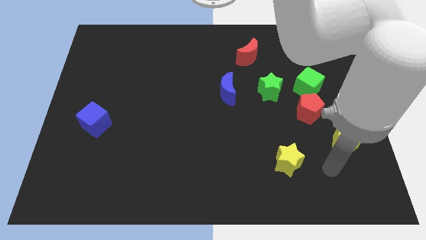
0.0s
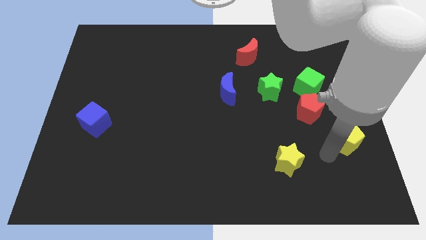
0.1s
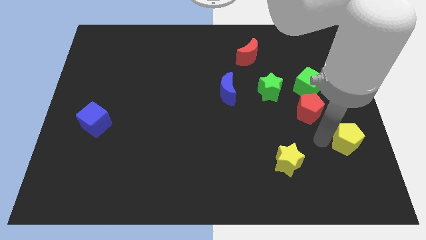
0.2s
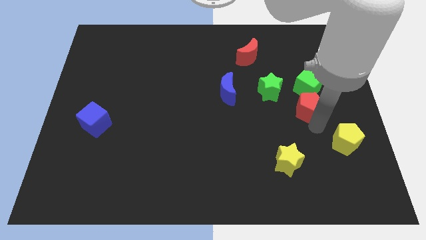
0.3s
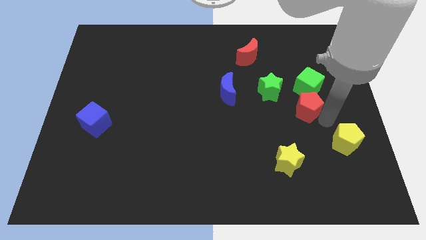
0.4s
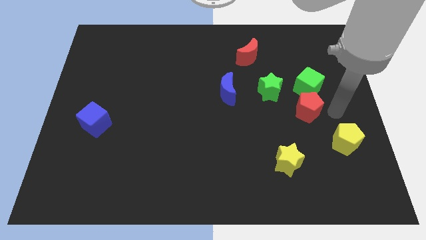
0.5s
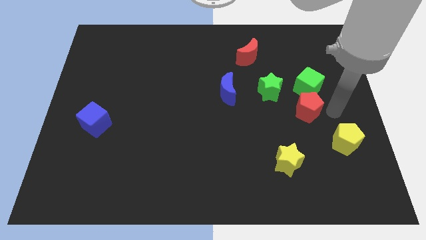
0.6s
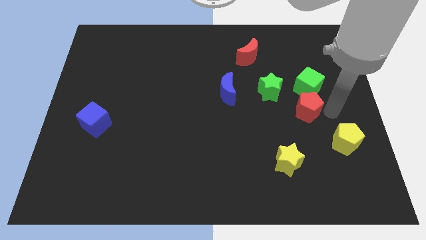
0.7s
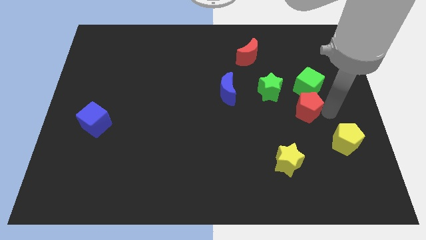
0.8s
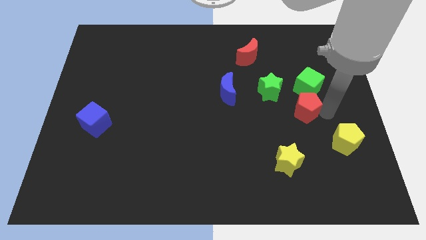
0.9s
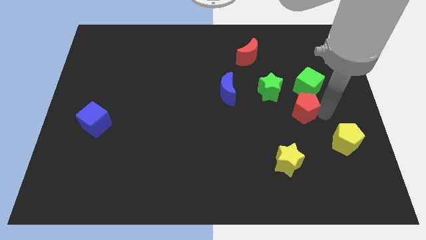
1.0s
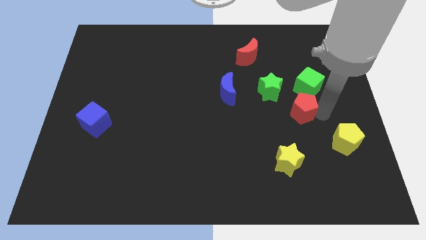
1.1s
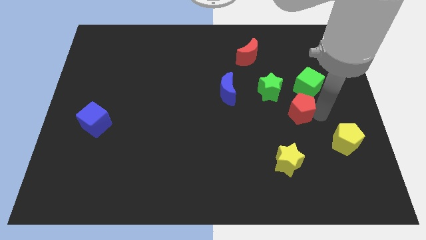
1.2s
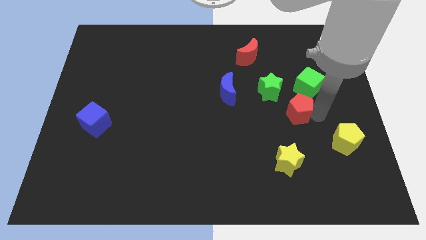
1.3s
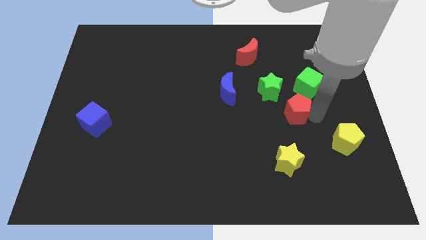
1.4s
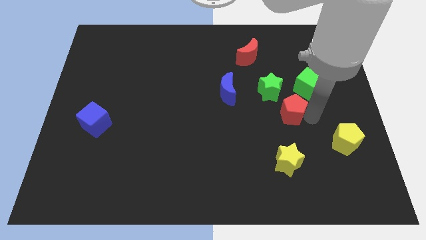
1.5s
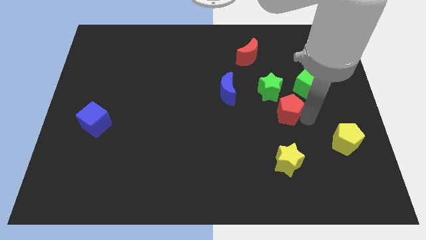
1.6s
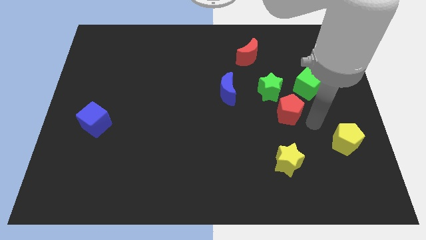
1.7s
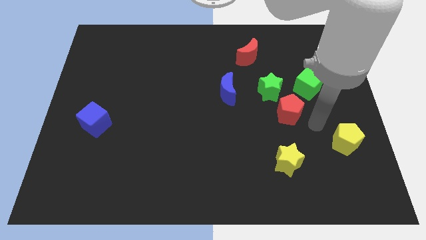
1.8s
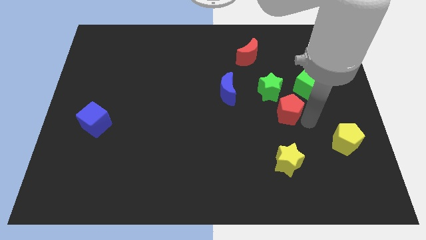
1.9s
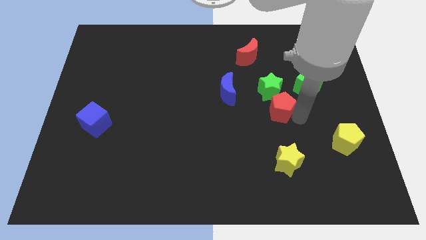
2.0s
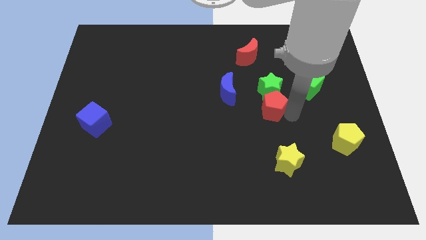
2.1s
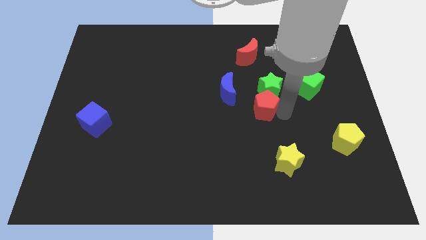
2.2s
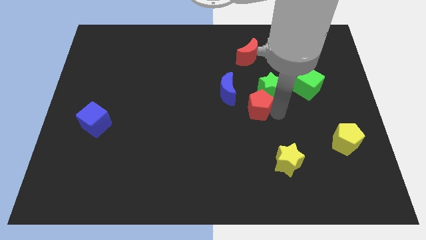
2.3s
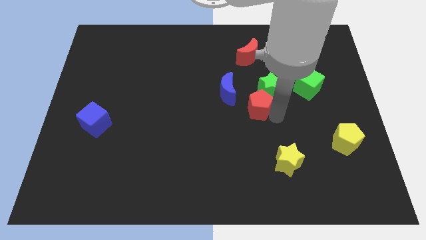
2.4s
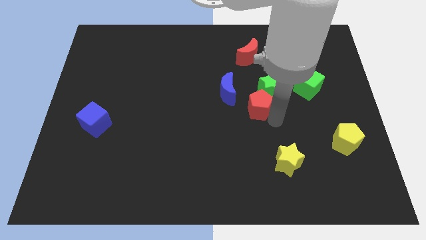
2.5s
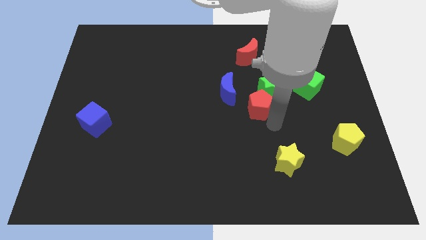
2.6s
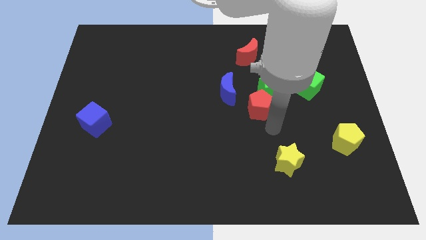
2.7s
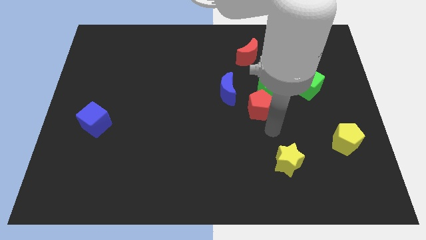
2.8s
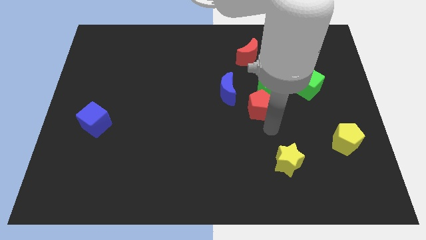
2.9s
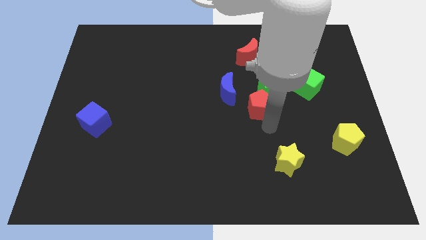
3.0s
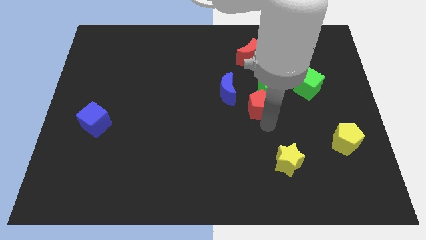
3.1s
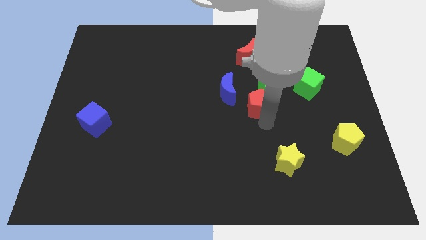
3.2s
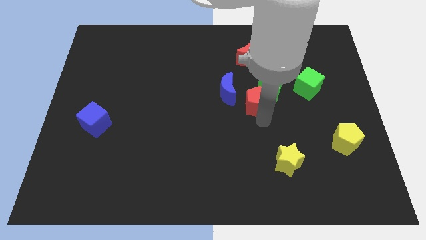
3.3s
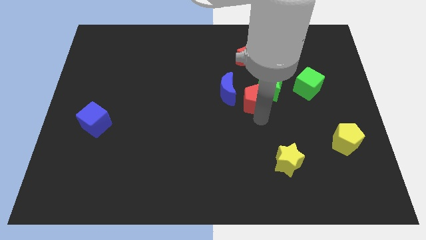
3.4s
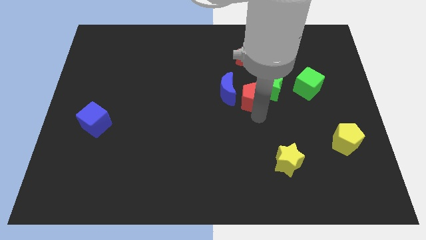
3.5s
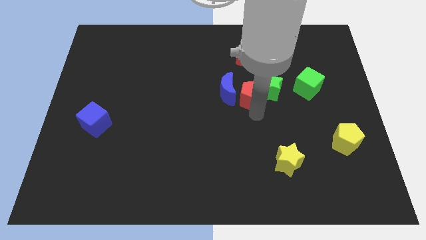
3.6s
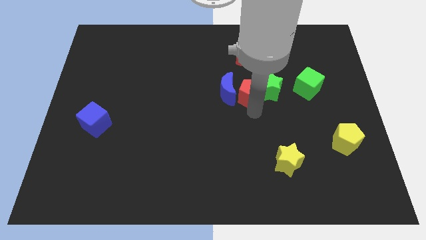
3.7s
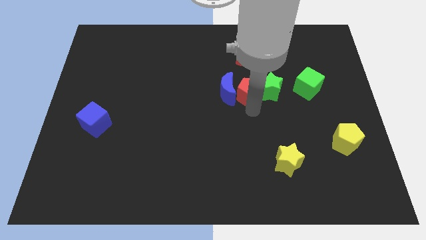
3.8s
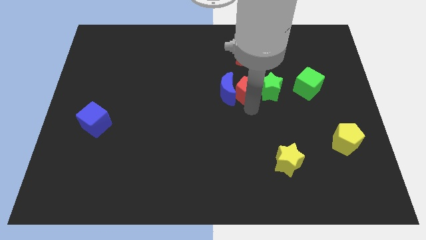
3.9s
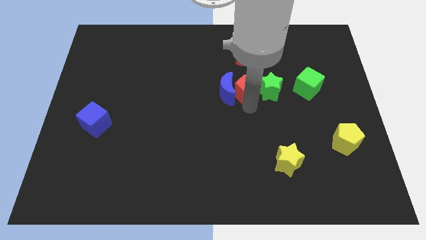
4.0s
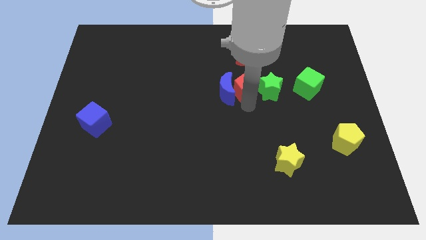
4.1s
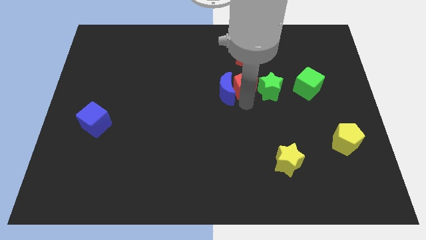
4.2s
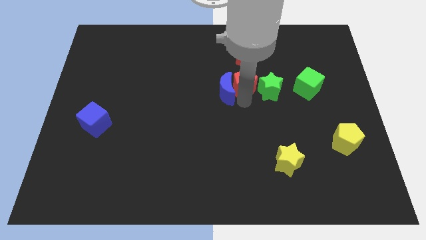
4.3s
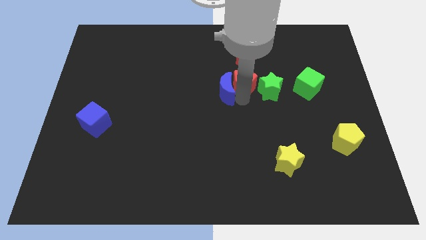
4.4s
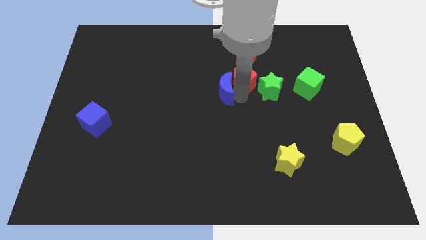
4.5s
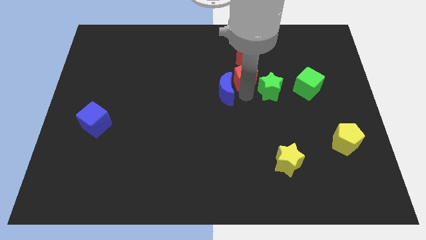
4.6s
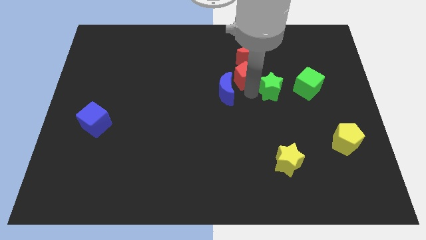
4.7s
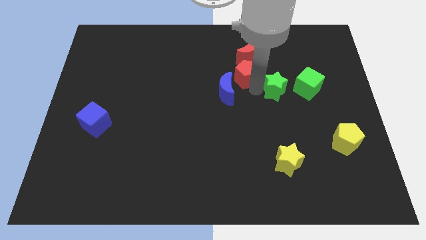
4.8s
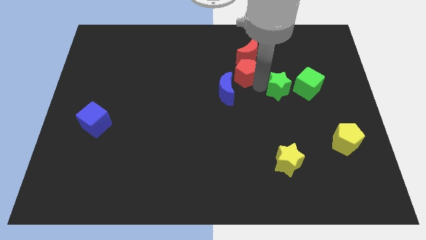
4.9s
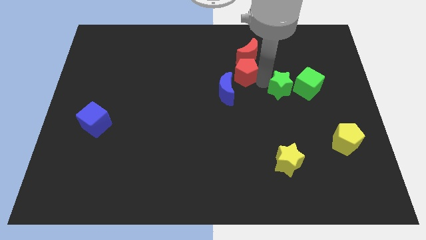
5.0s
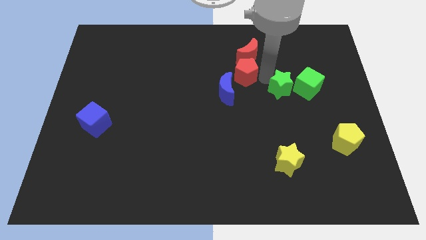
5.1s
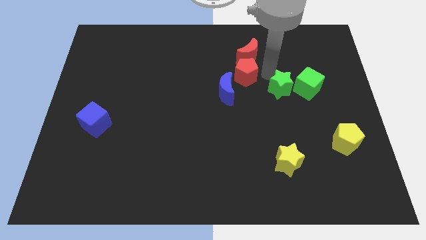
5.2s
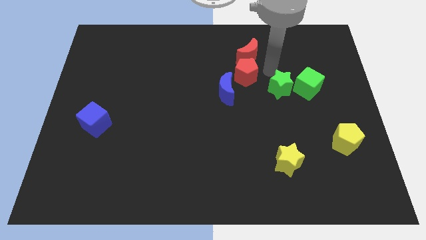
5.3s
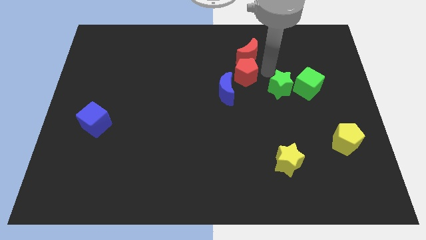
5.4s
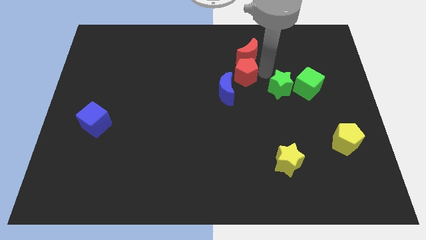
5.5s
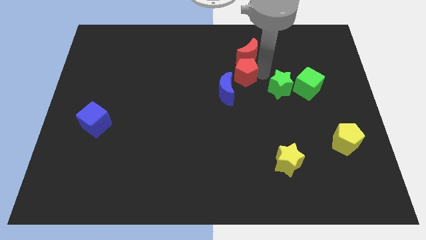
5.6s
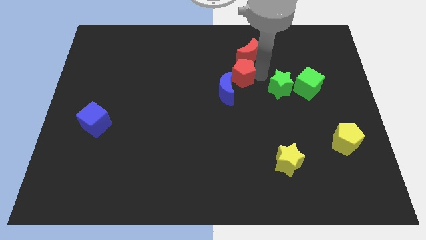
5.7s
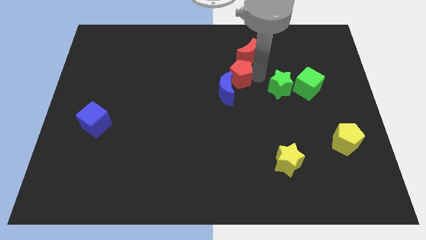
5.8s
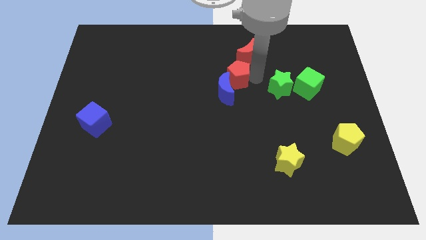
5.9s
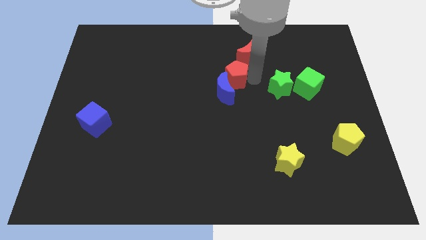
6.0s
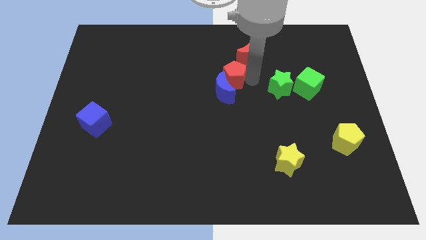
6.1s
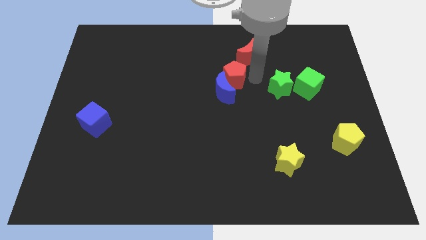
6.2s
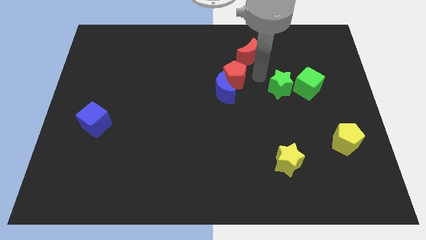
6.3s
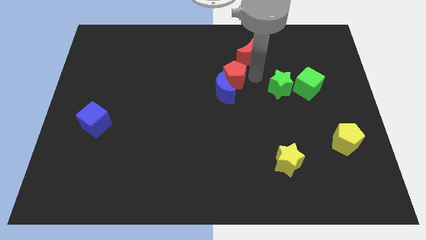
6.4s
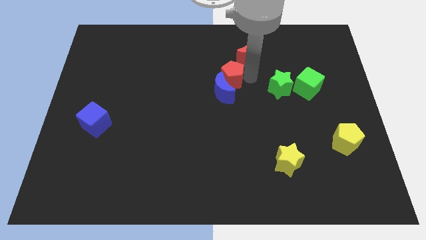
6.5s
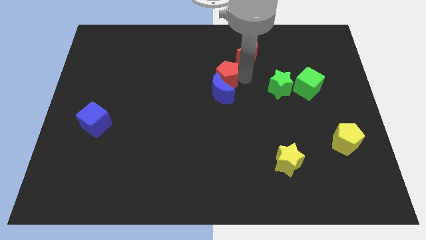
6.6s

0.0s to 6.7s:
move the red pentagon diagonally up and to the left of the blue moon

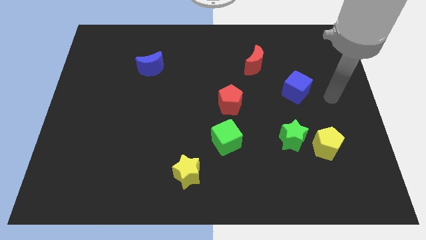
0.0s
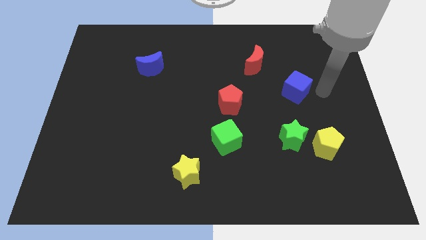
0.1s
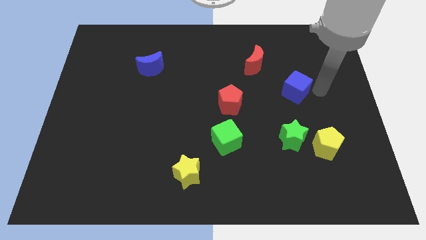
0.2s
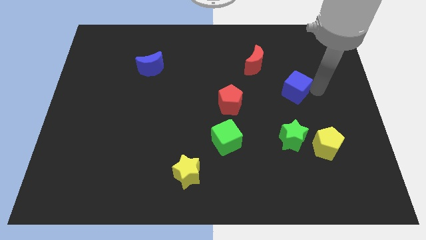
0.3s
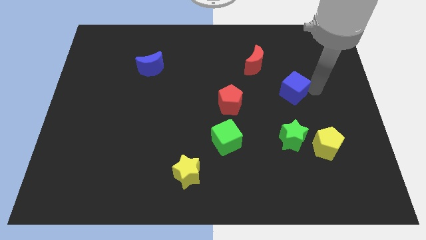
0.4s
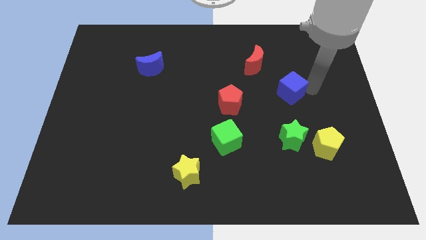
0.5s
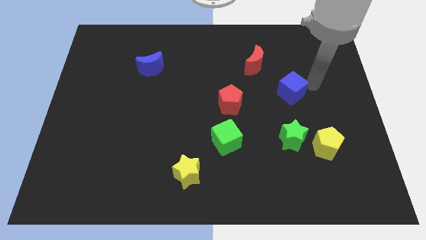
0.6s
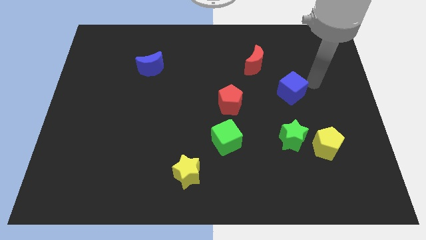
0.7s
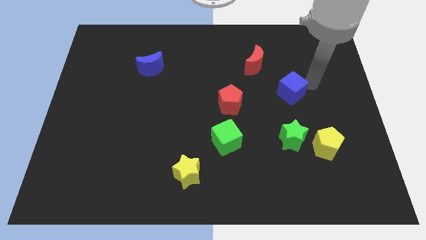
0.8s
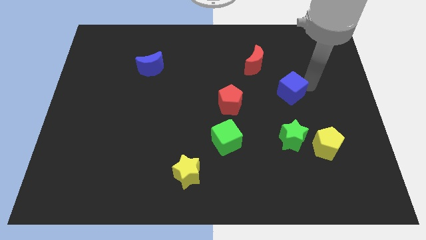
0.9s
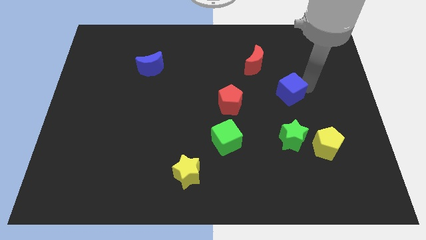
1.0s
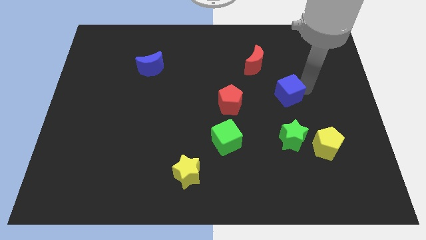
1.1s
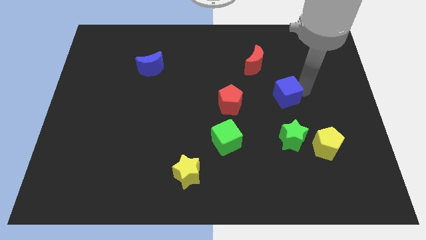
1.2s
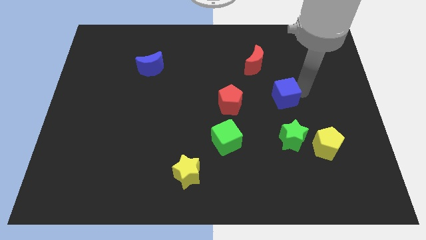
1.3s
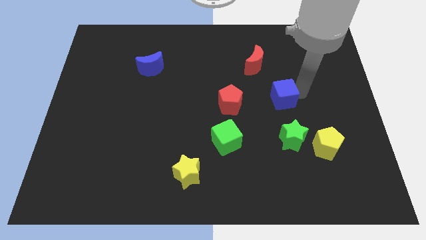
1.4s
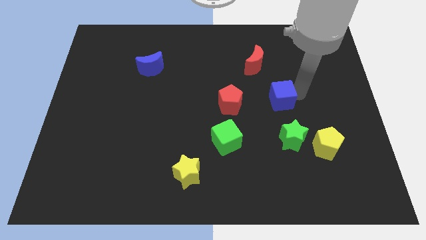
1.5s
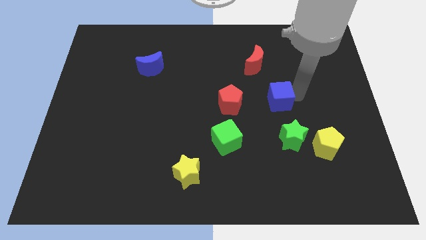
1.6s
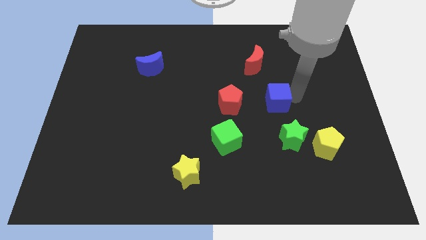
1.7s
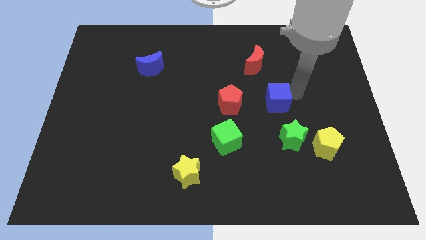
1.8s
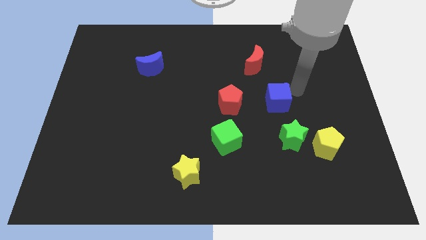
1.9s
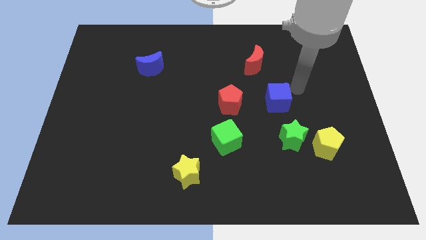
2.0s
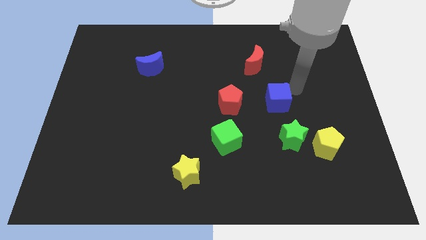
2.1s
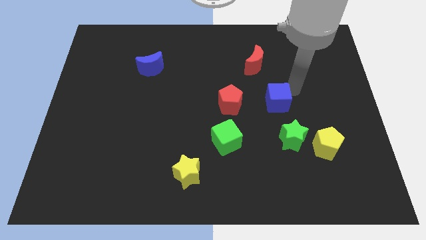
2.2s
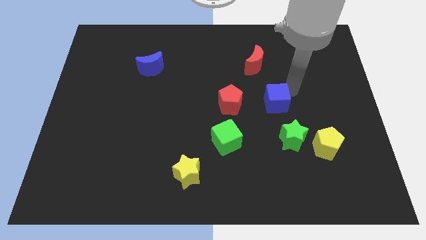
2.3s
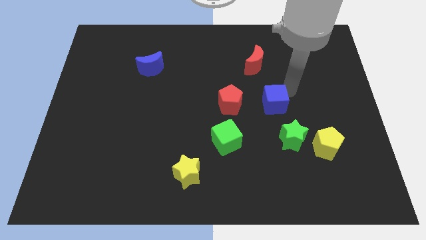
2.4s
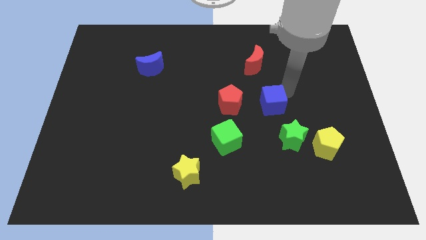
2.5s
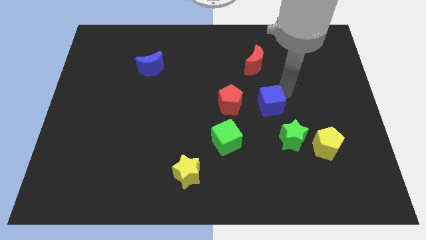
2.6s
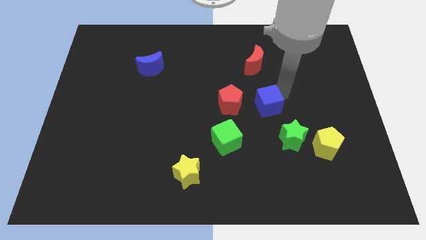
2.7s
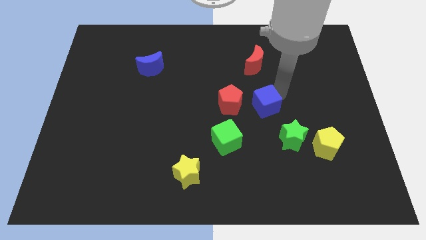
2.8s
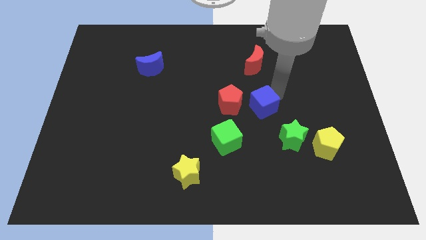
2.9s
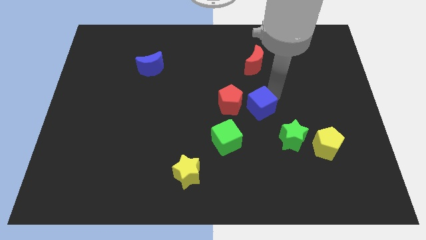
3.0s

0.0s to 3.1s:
move the blue cube to the bottom right of the red pentagon
